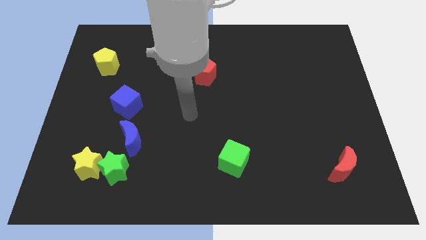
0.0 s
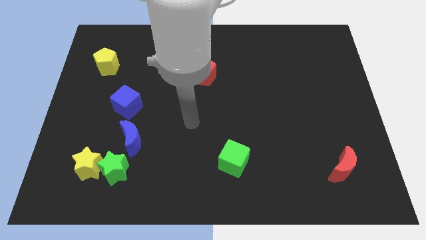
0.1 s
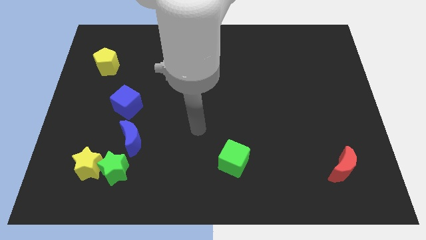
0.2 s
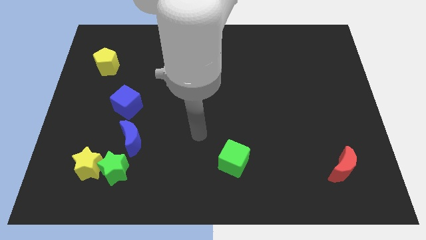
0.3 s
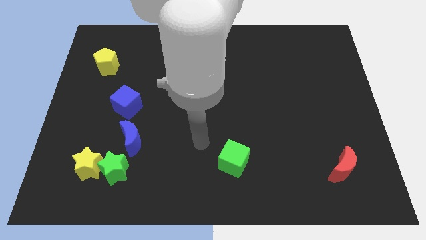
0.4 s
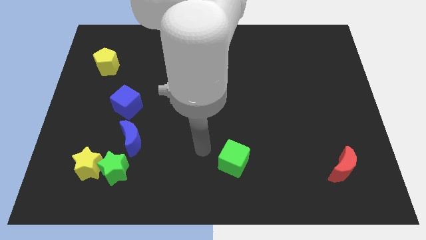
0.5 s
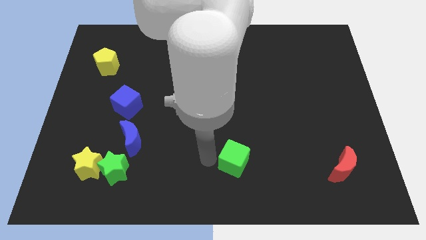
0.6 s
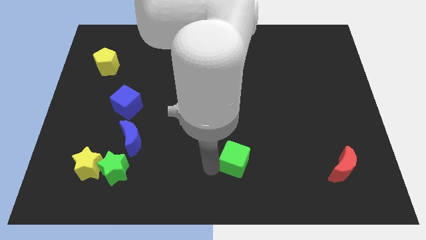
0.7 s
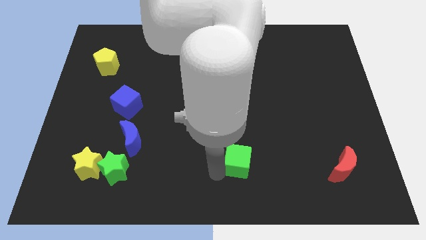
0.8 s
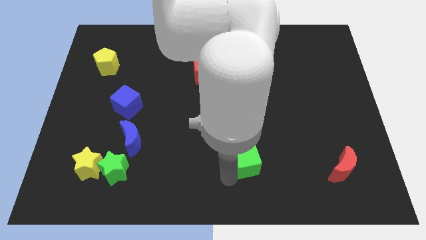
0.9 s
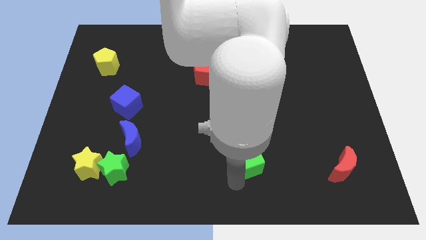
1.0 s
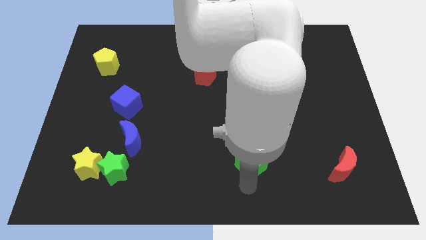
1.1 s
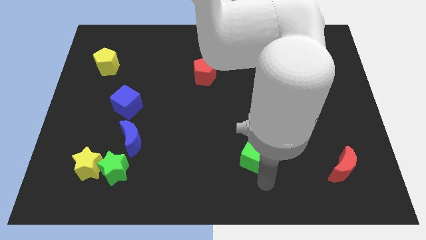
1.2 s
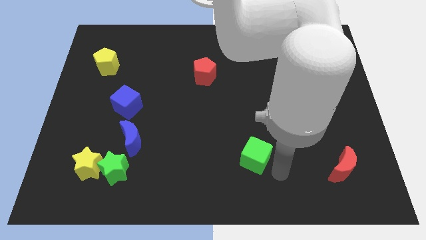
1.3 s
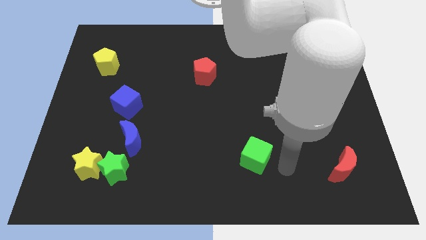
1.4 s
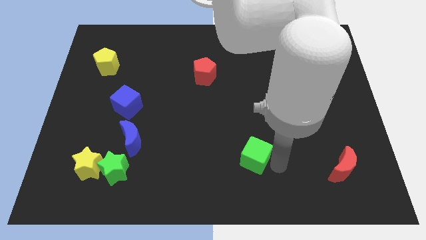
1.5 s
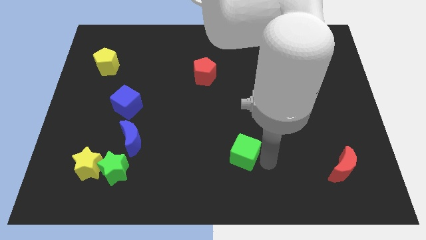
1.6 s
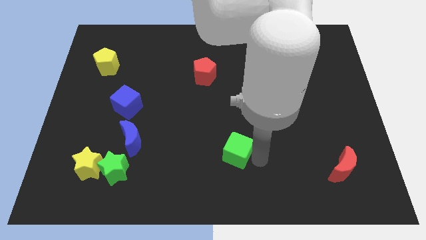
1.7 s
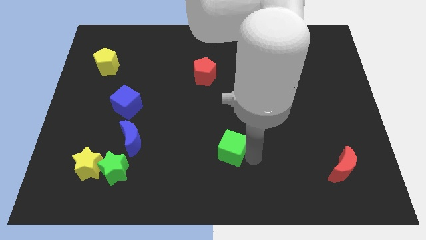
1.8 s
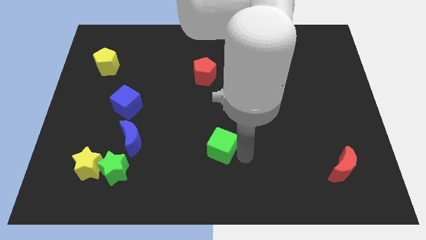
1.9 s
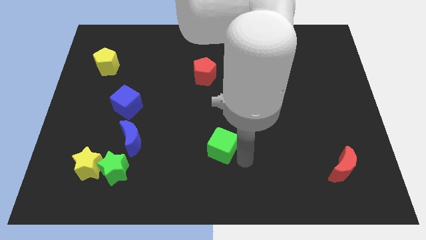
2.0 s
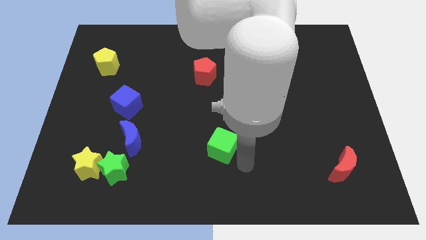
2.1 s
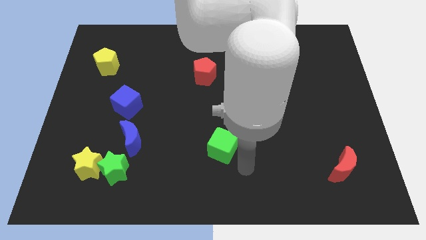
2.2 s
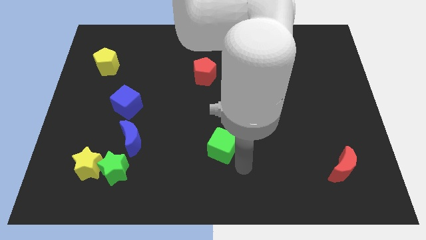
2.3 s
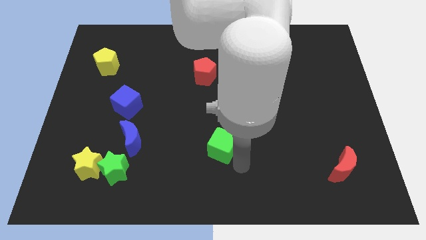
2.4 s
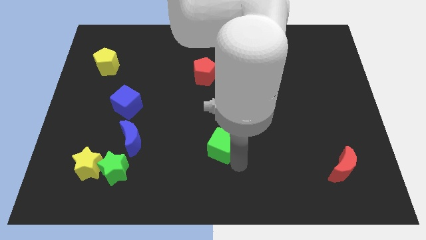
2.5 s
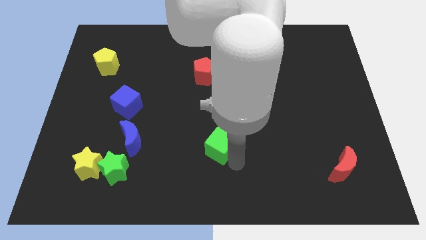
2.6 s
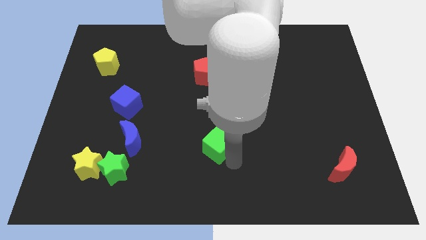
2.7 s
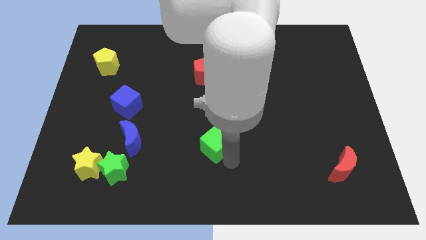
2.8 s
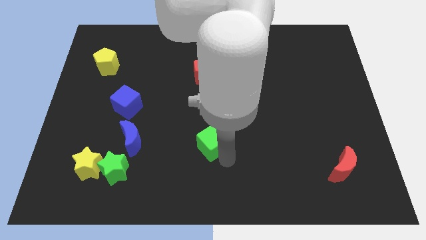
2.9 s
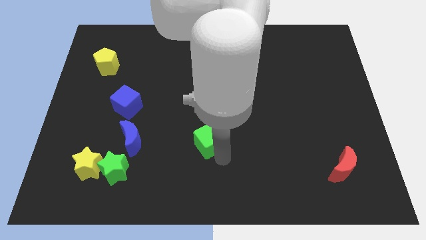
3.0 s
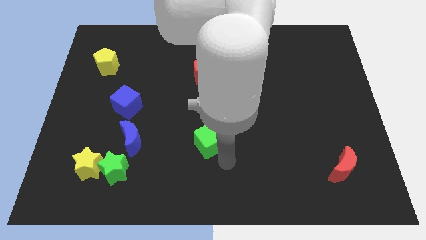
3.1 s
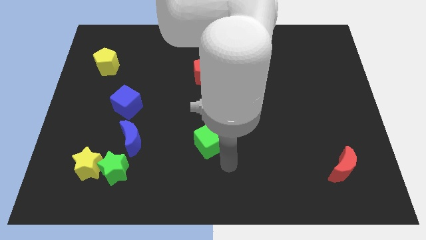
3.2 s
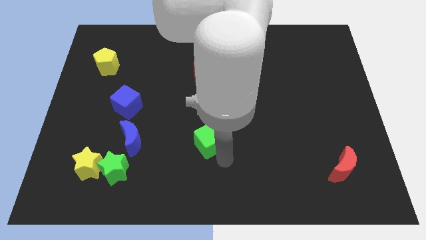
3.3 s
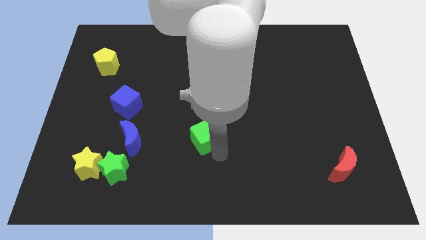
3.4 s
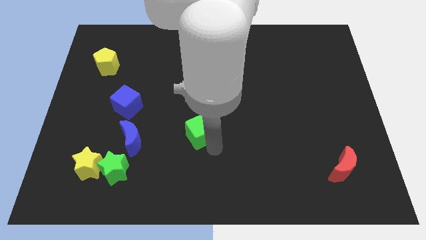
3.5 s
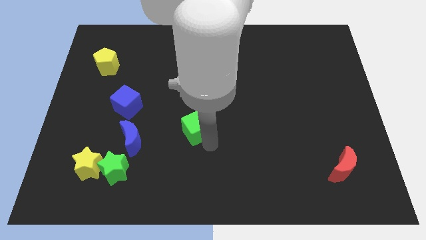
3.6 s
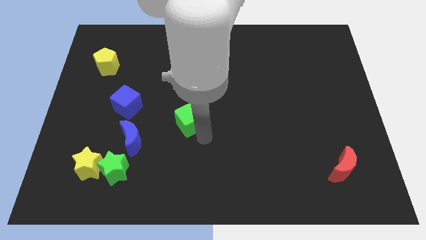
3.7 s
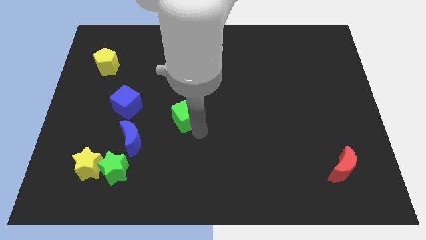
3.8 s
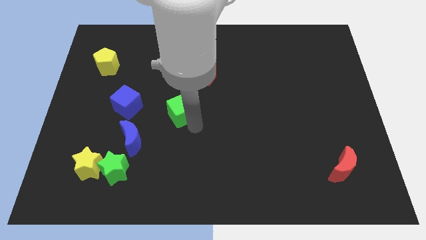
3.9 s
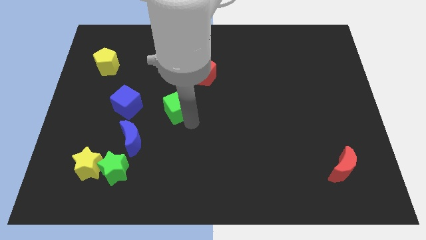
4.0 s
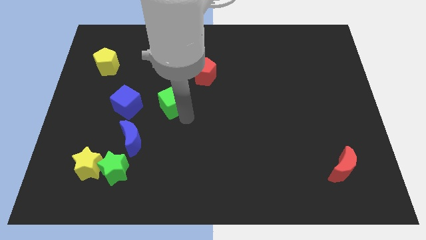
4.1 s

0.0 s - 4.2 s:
slide the green cube diagonally upwards and to the left

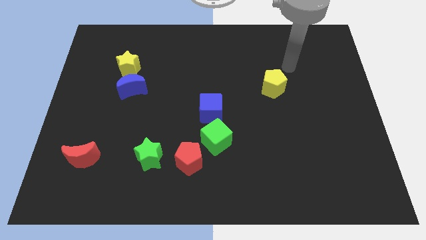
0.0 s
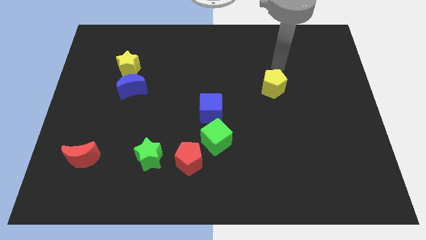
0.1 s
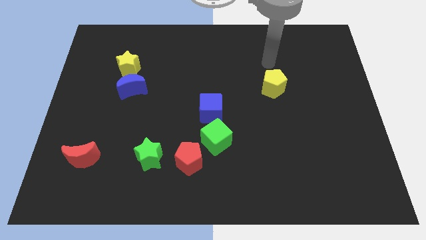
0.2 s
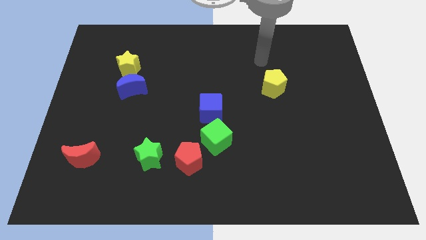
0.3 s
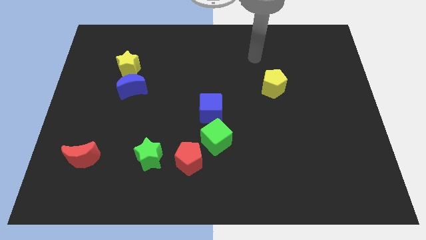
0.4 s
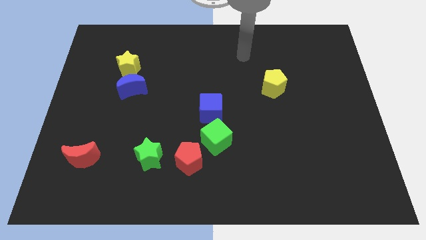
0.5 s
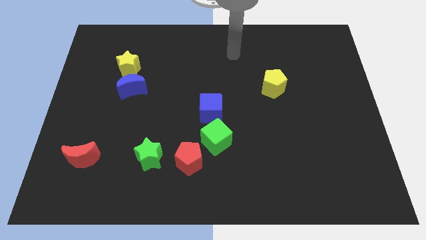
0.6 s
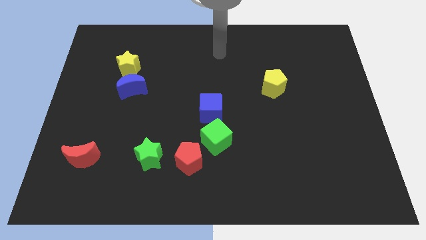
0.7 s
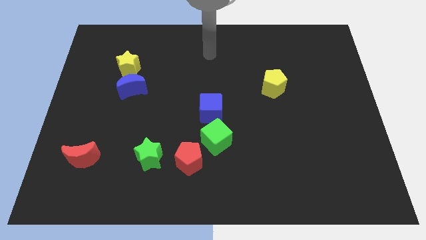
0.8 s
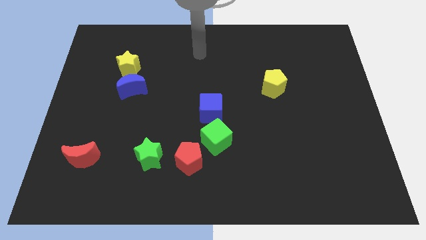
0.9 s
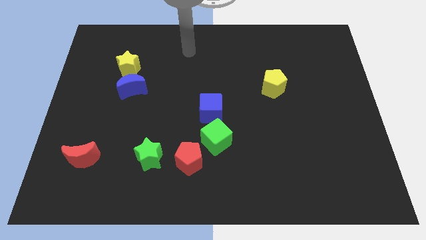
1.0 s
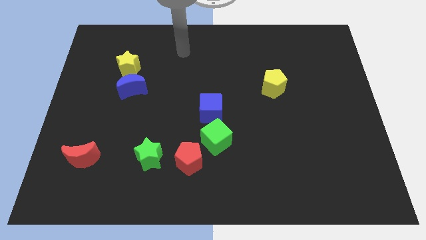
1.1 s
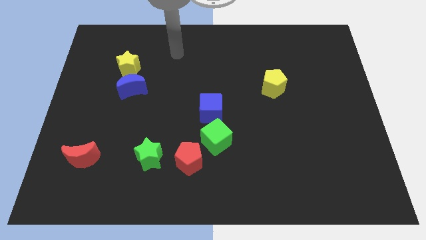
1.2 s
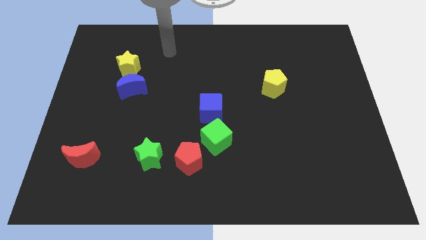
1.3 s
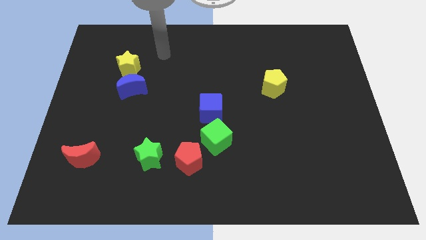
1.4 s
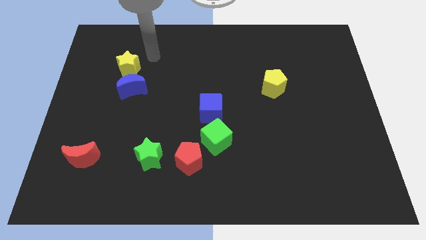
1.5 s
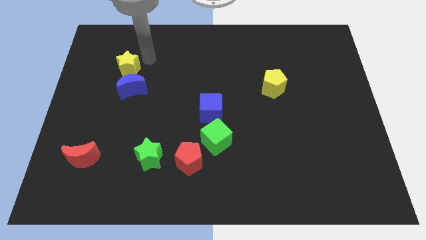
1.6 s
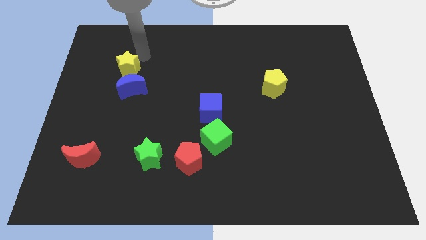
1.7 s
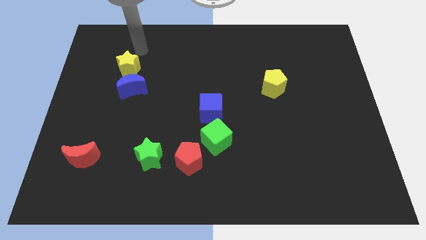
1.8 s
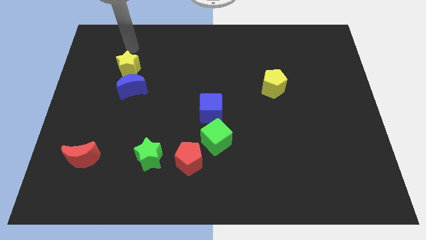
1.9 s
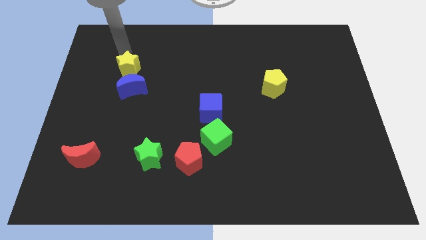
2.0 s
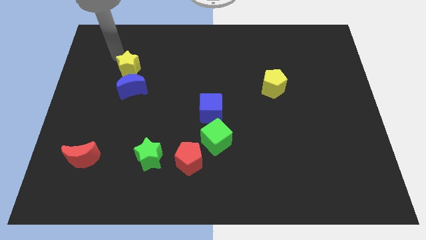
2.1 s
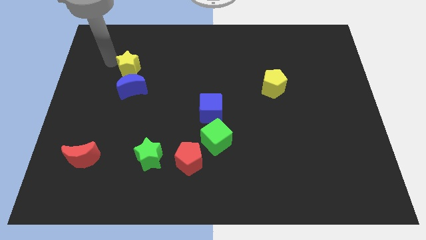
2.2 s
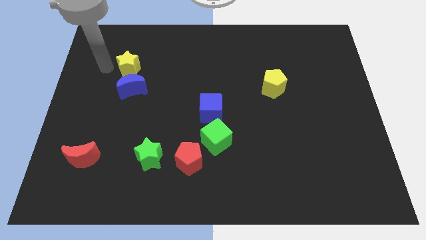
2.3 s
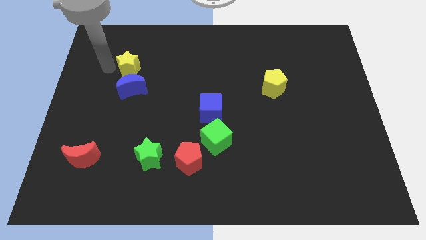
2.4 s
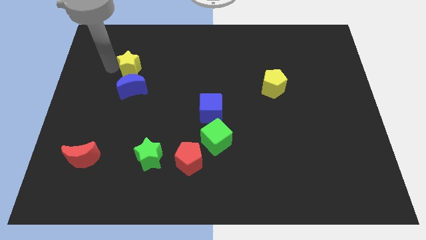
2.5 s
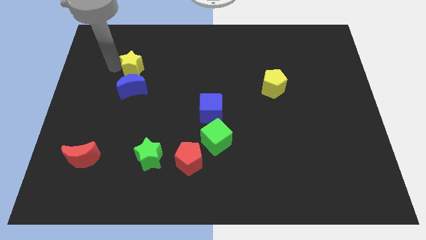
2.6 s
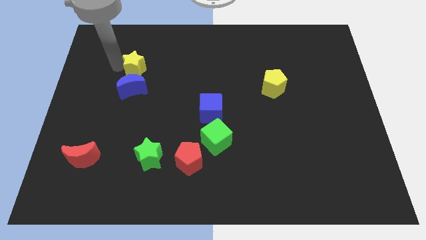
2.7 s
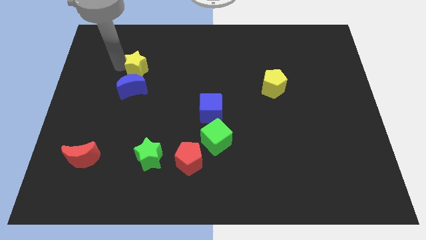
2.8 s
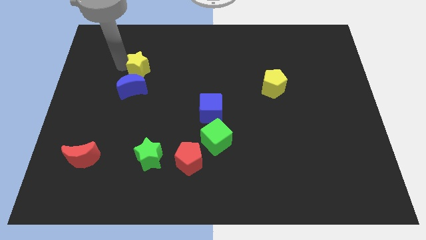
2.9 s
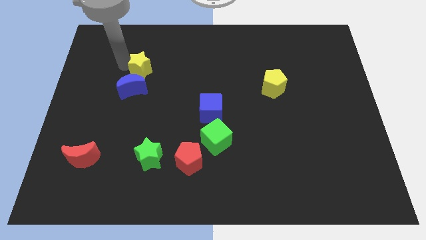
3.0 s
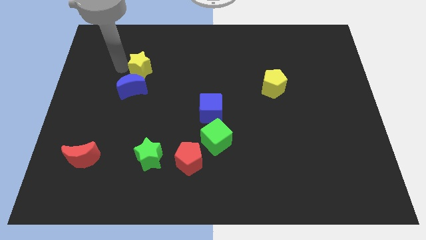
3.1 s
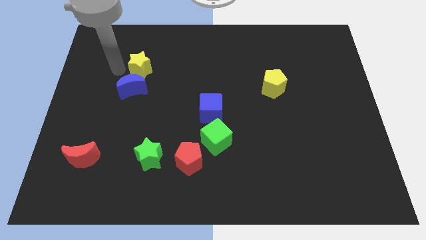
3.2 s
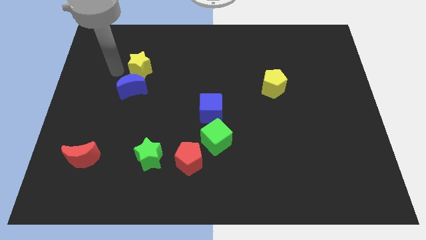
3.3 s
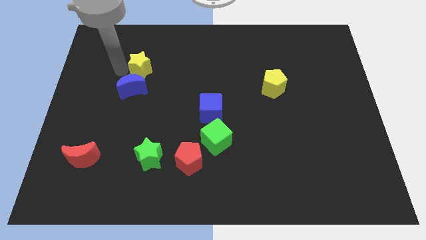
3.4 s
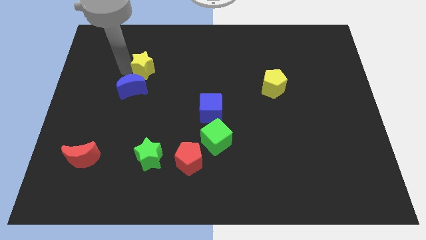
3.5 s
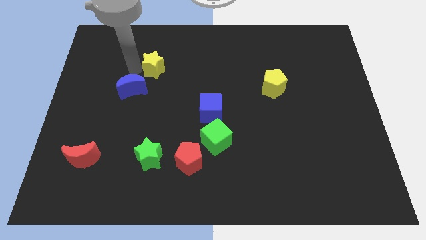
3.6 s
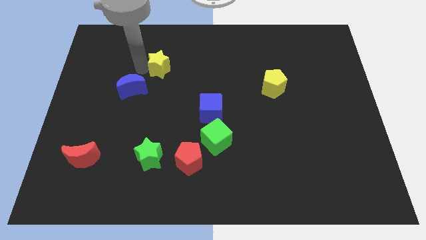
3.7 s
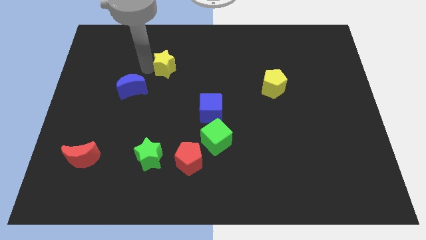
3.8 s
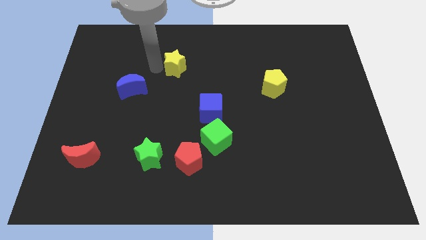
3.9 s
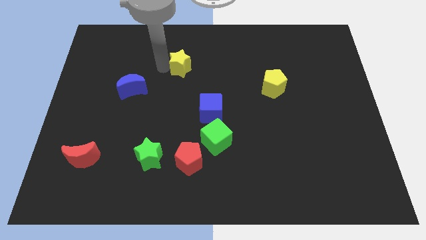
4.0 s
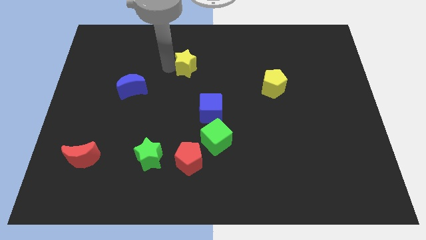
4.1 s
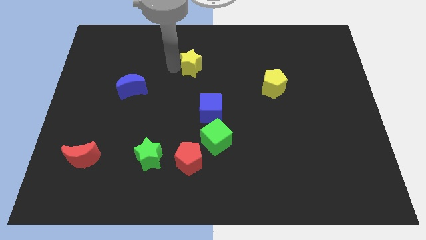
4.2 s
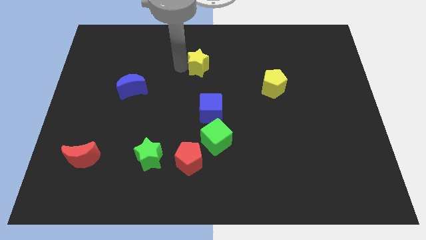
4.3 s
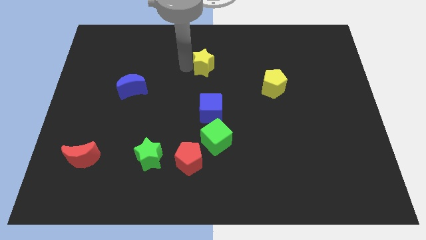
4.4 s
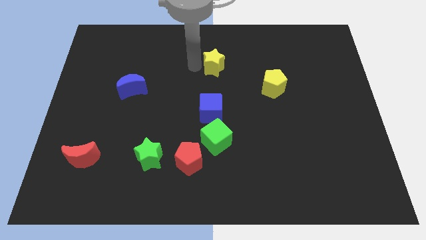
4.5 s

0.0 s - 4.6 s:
move the yellow star to the right
